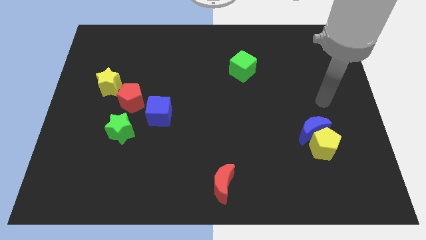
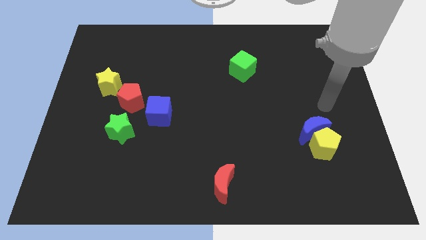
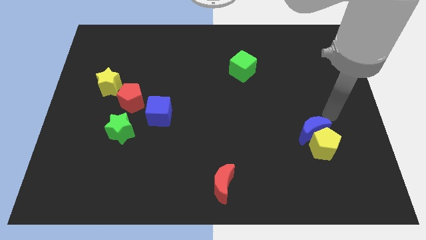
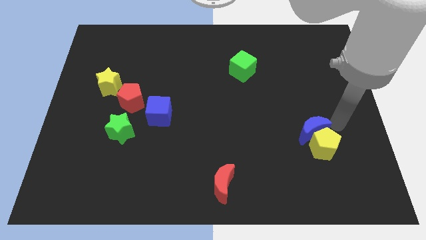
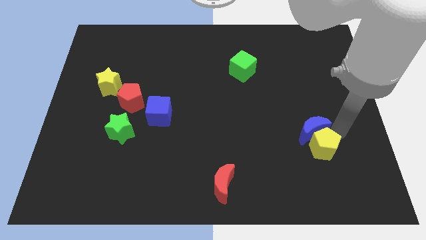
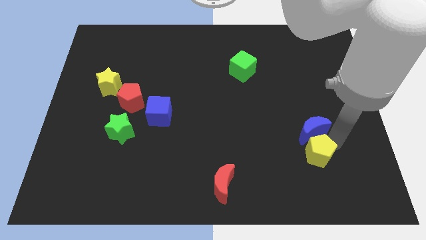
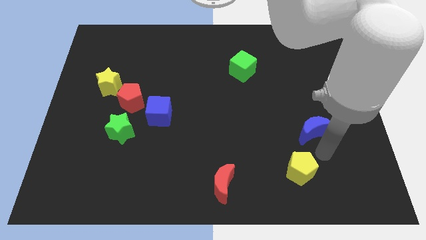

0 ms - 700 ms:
pull the blue moon apart from the yellow pentagon

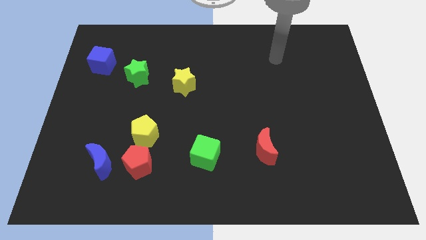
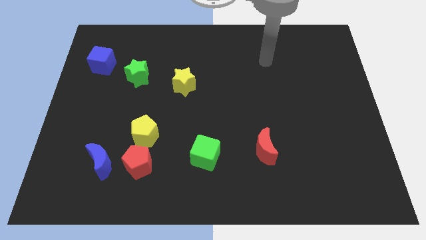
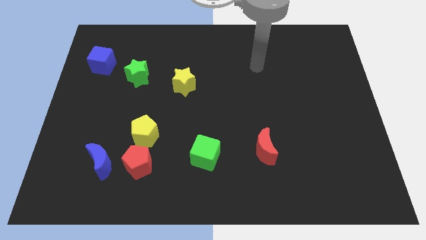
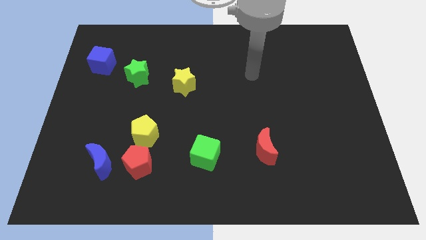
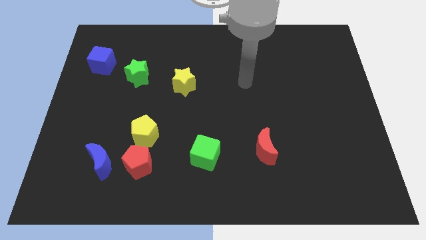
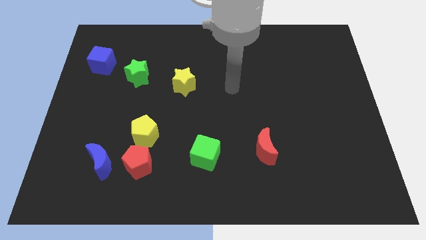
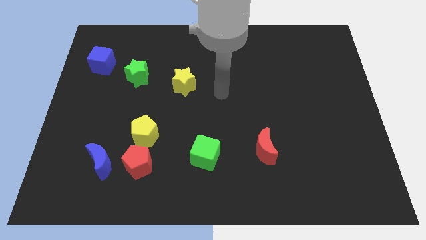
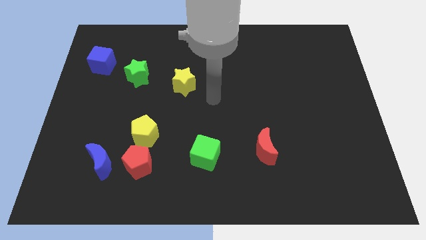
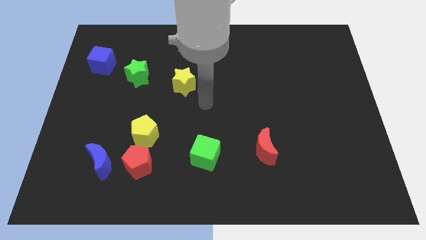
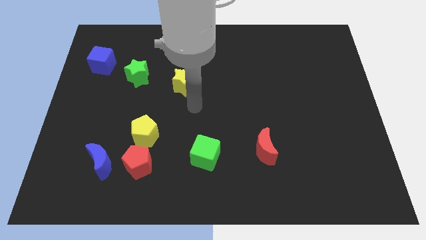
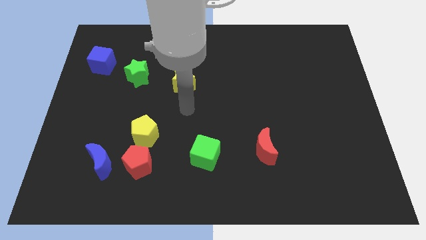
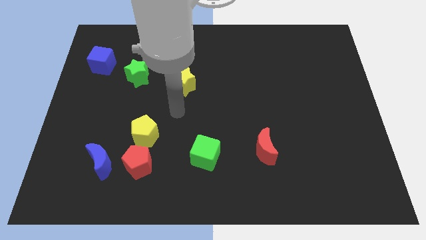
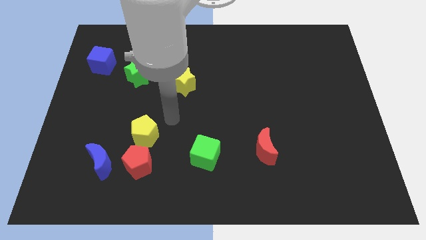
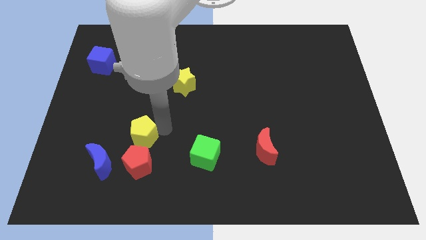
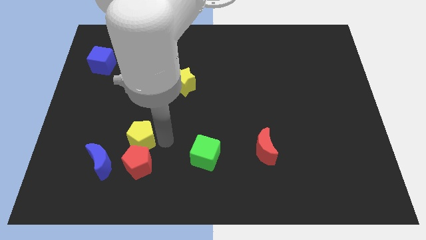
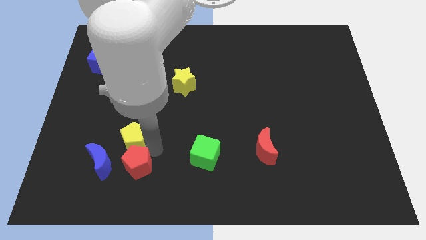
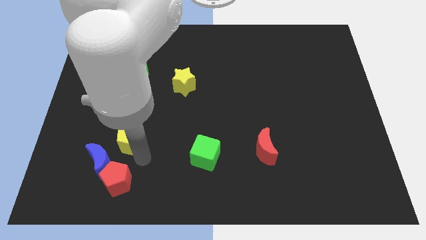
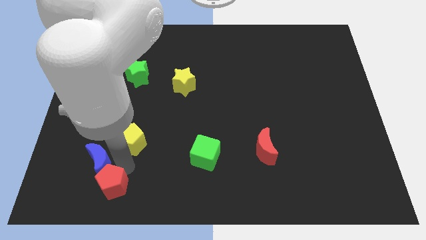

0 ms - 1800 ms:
separate the yellow pentagon from the red pentagon

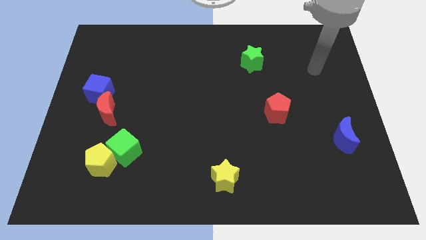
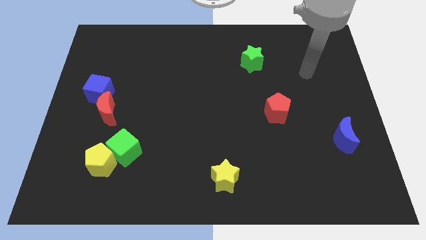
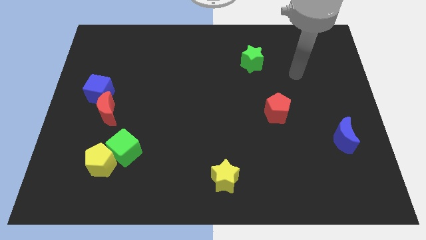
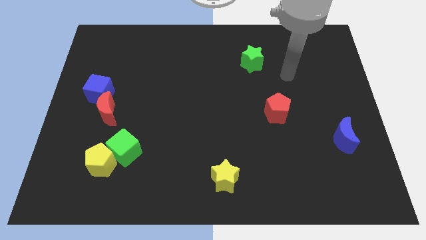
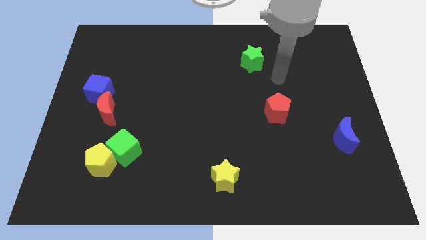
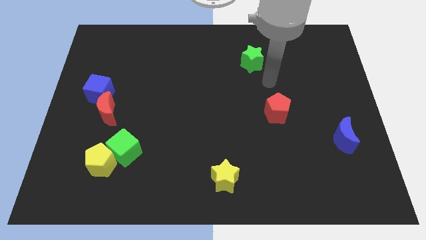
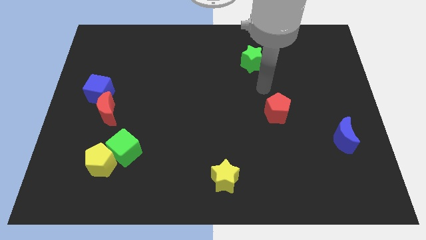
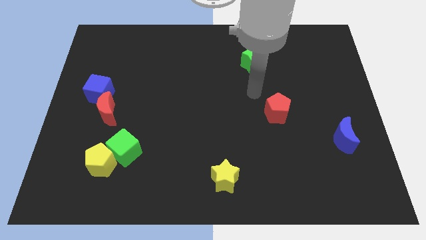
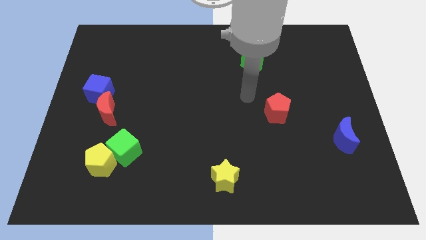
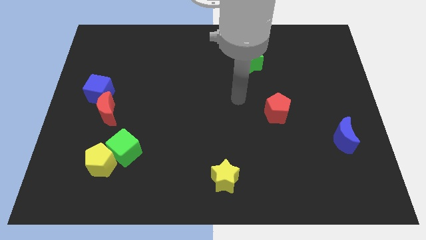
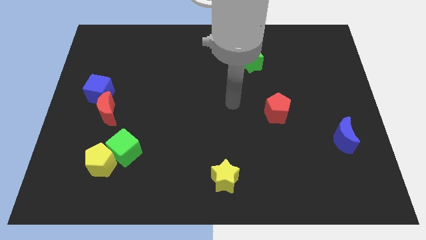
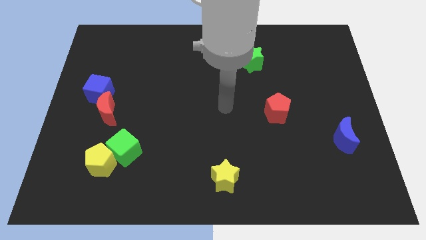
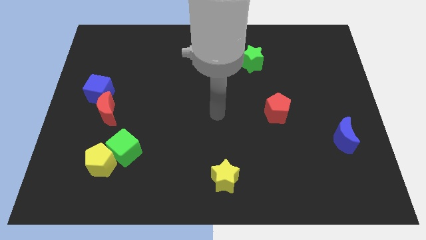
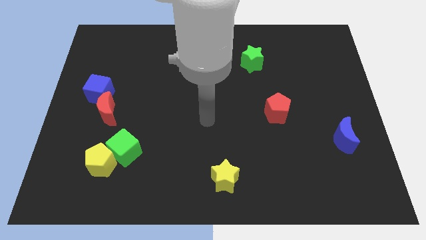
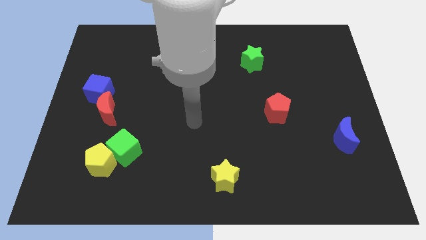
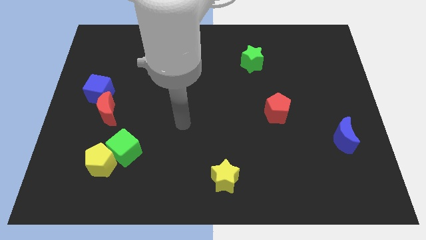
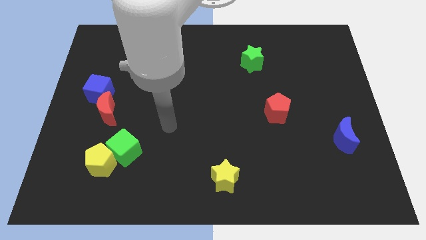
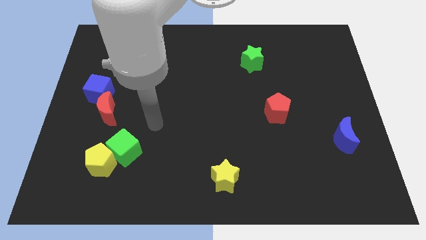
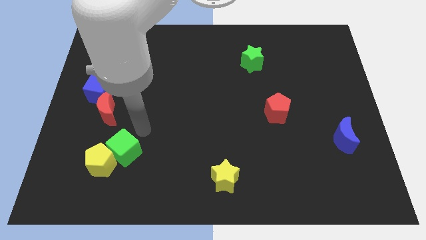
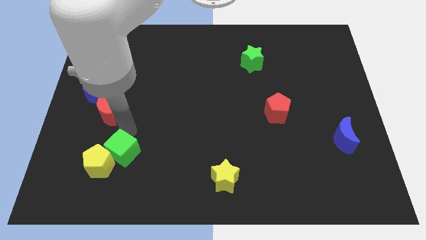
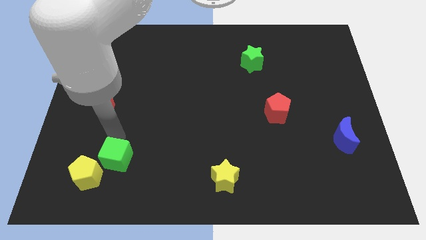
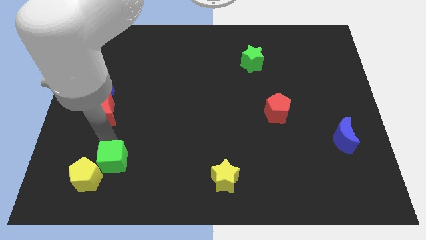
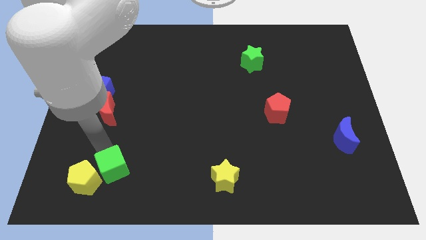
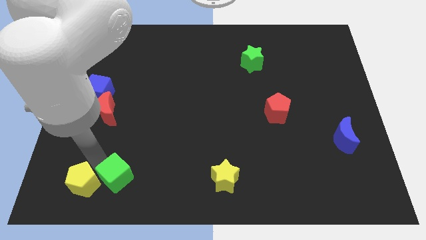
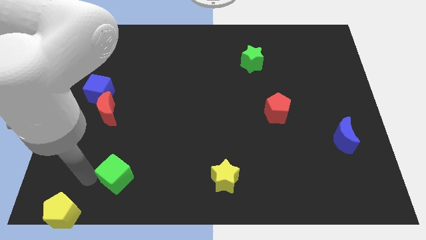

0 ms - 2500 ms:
separate the green cube from the yellow pentagon

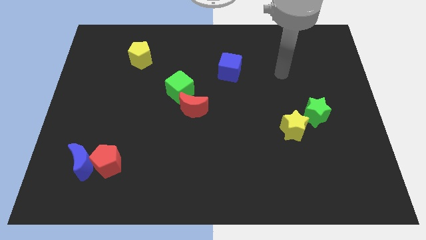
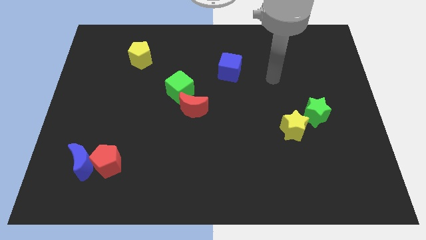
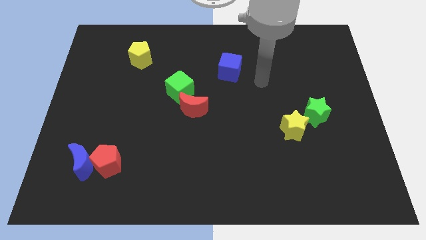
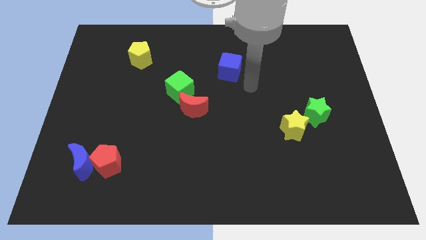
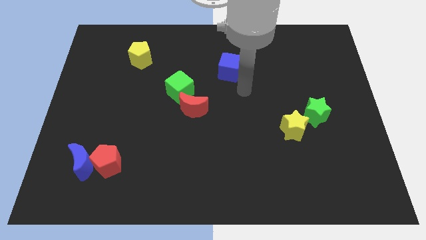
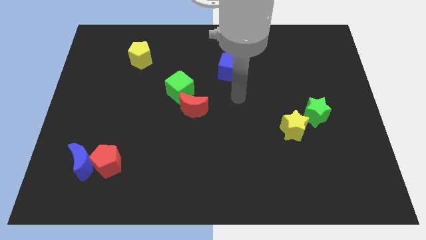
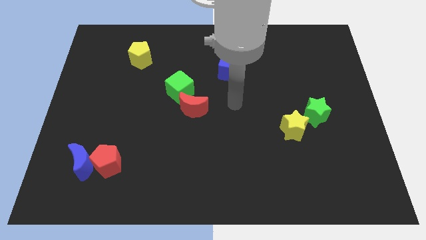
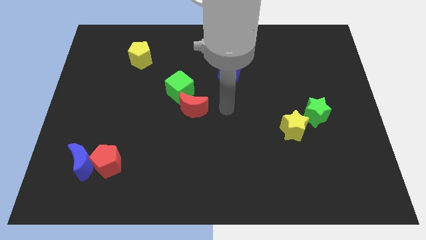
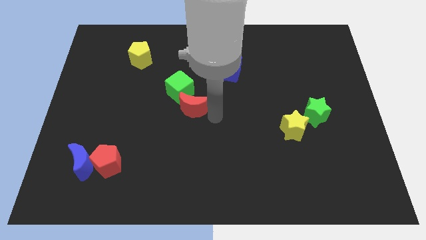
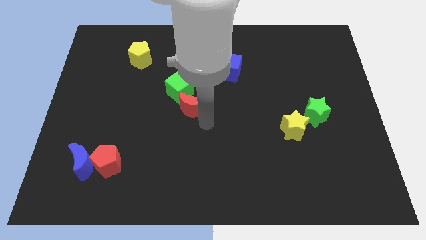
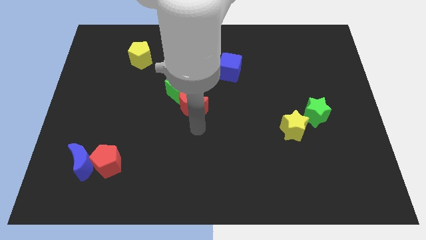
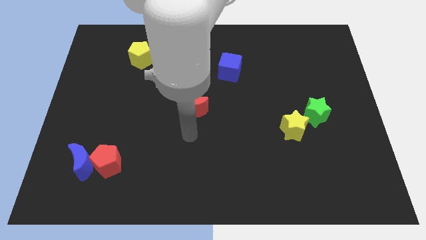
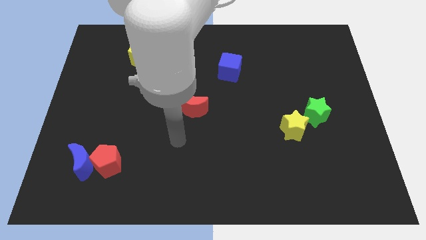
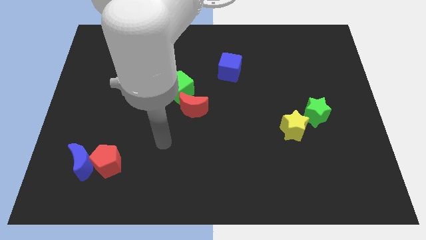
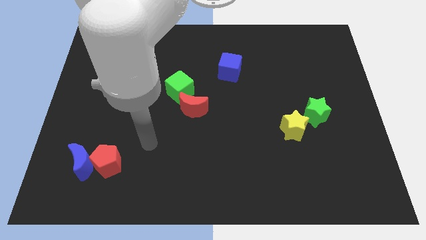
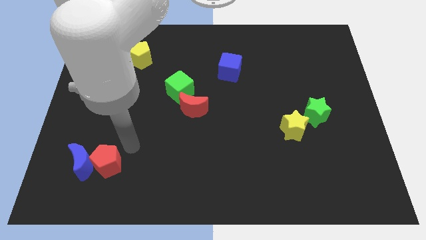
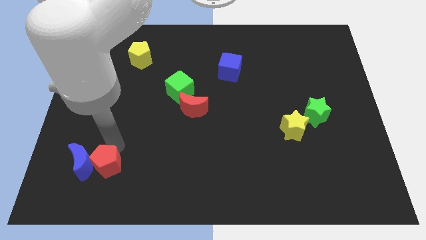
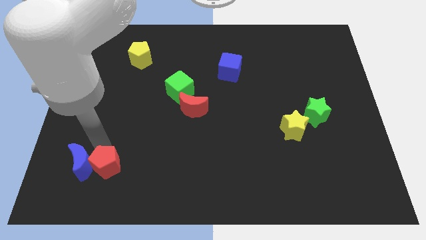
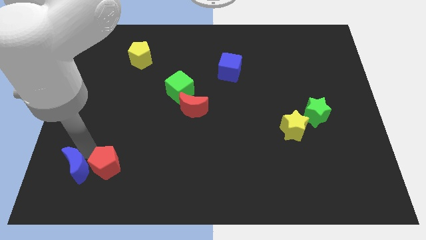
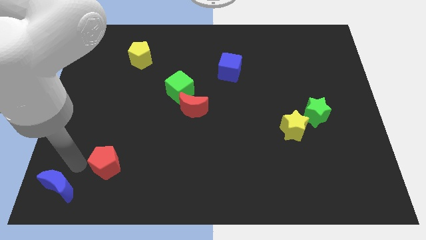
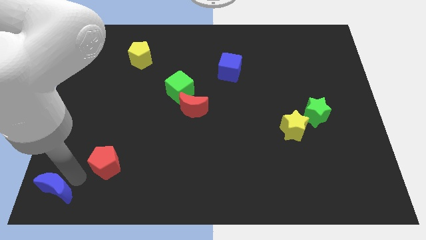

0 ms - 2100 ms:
move the red pentagon away from the blue moon

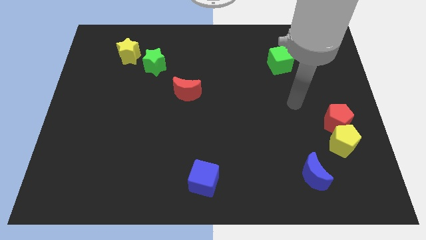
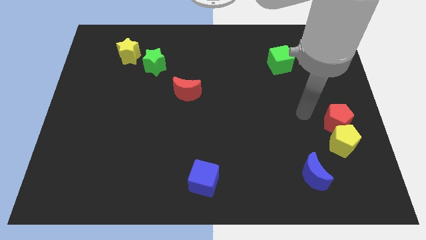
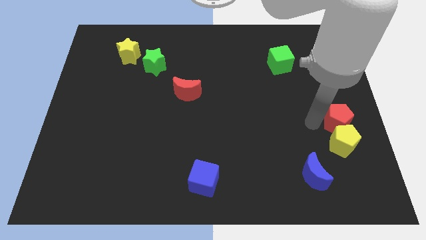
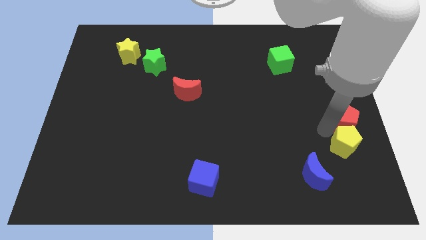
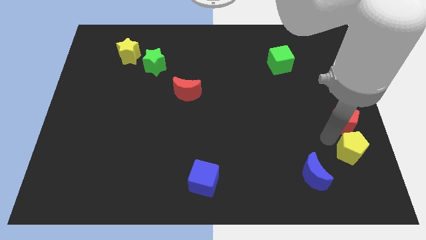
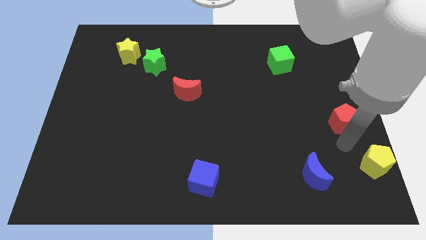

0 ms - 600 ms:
pull the red pentagon apart from the yellow pentagon

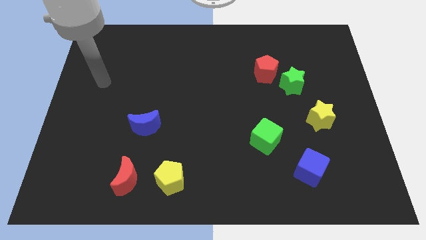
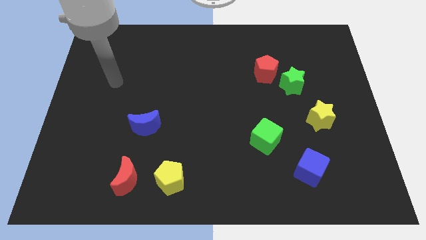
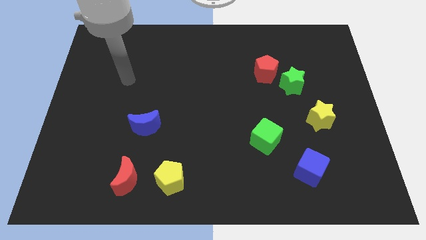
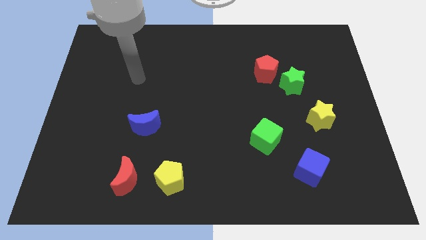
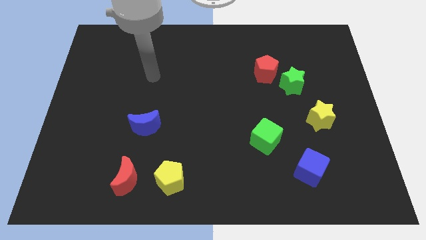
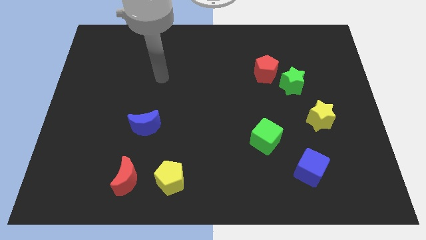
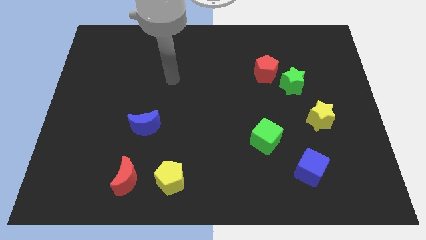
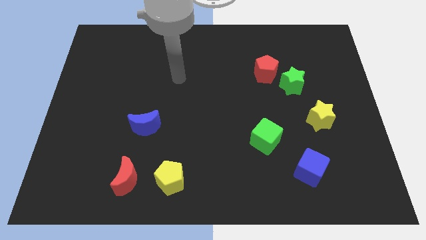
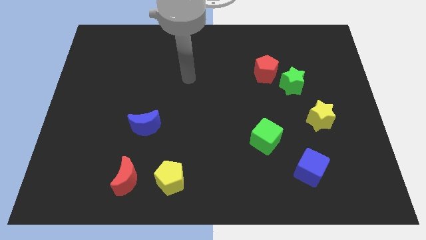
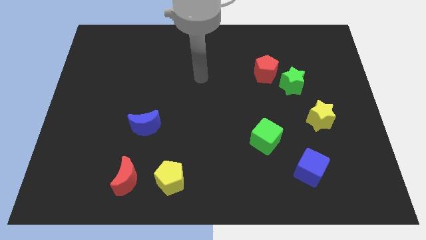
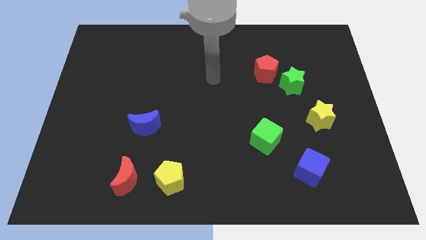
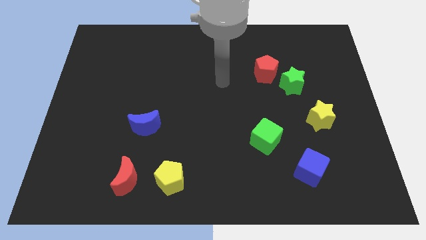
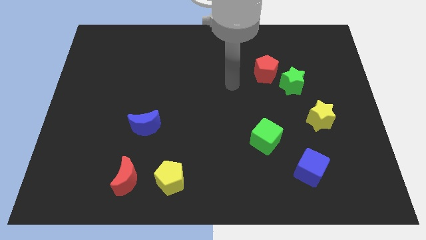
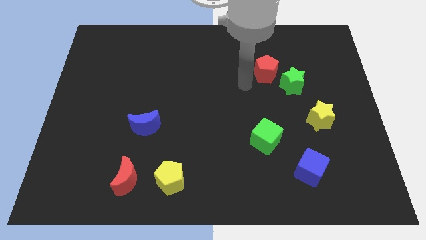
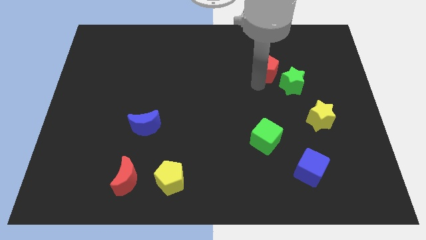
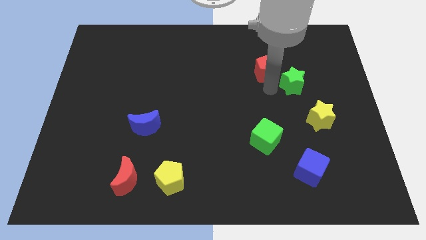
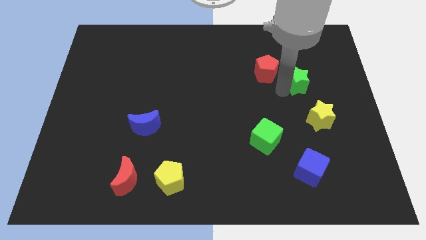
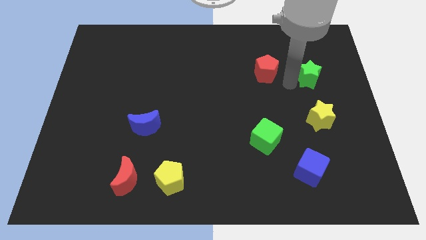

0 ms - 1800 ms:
pull the red pentagon apart from the green star
